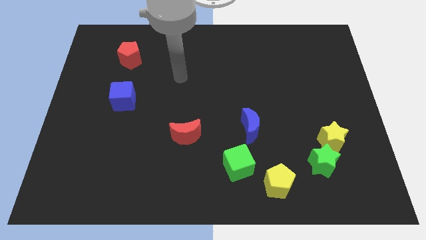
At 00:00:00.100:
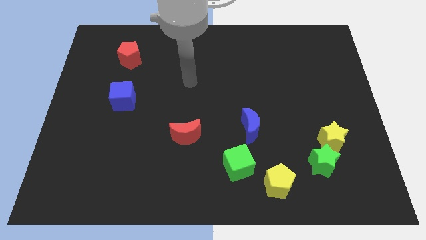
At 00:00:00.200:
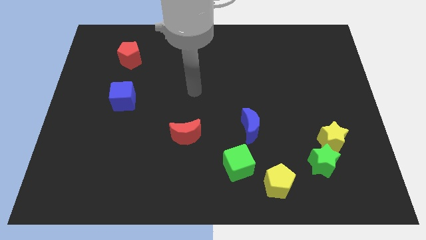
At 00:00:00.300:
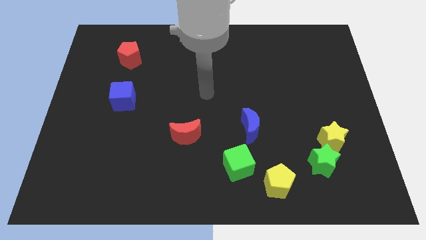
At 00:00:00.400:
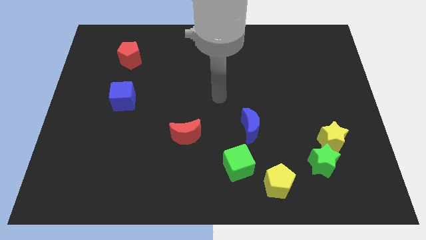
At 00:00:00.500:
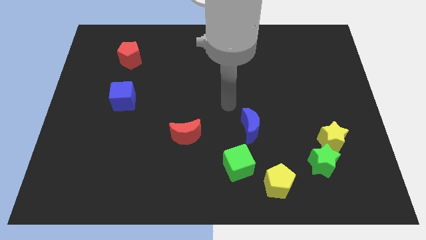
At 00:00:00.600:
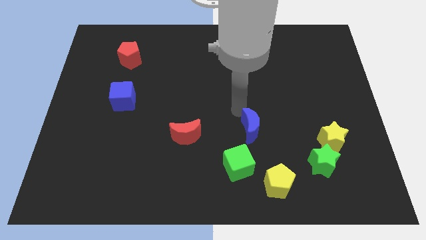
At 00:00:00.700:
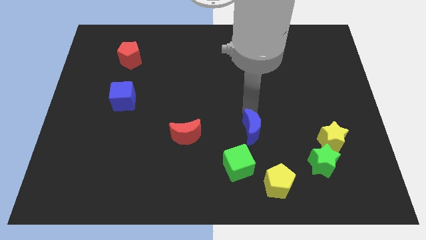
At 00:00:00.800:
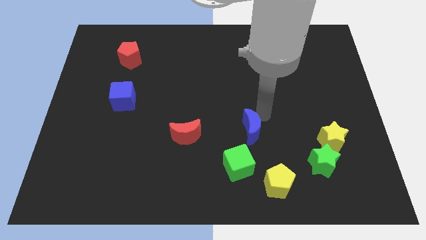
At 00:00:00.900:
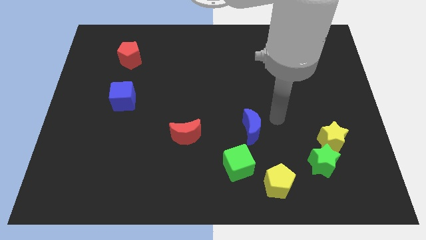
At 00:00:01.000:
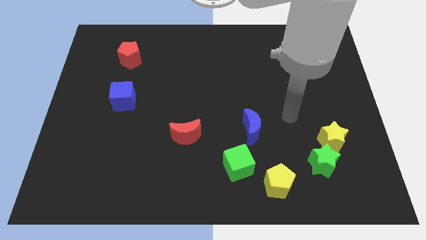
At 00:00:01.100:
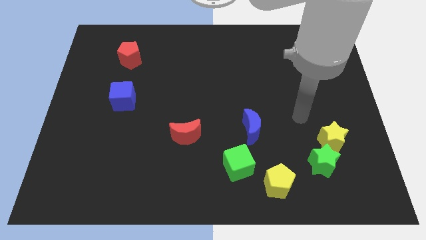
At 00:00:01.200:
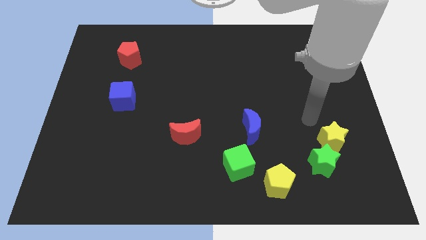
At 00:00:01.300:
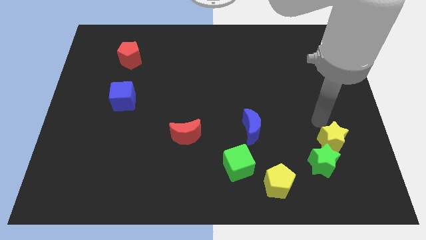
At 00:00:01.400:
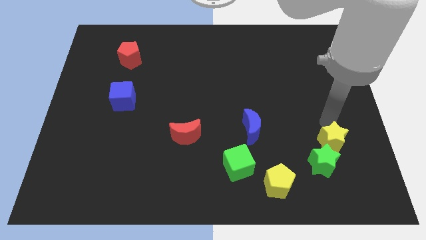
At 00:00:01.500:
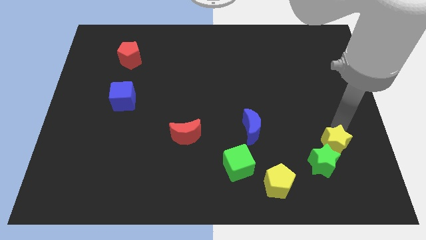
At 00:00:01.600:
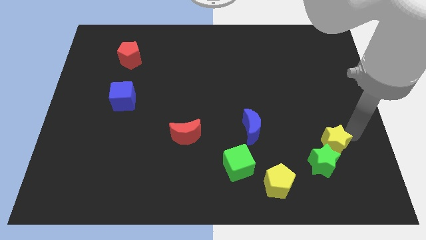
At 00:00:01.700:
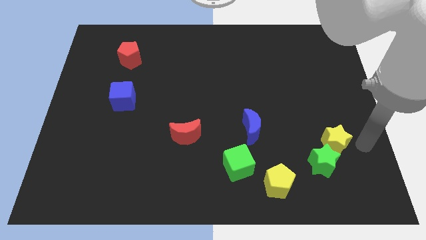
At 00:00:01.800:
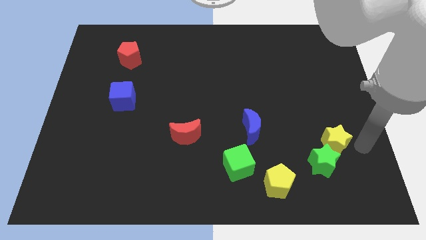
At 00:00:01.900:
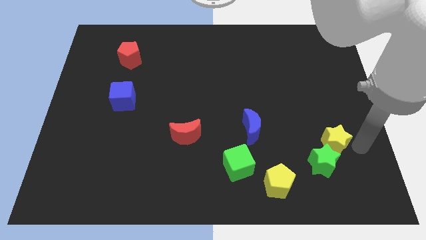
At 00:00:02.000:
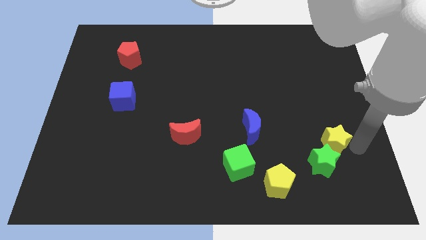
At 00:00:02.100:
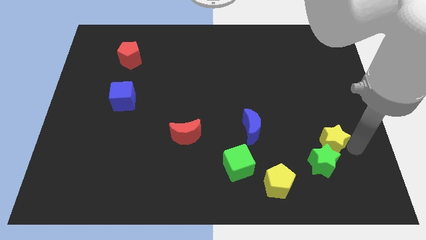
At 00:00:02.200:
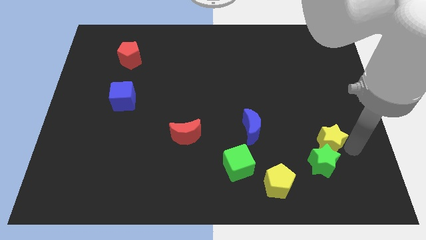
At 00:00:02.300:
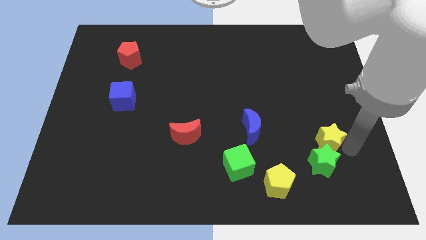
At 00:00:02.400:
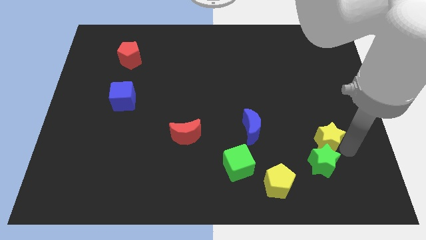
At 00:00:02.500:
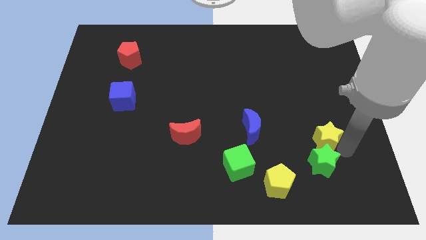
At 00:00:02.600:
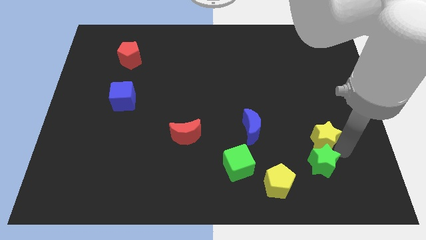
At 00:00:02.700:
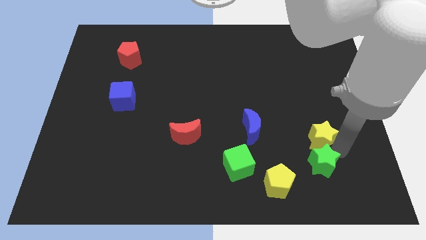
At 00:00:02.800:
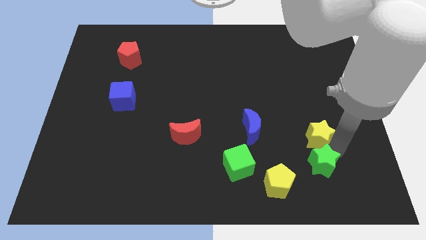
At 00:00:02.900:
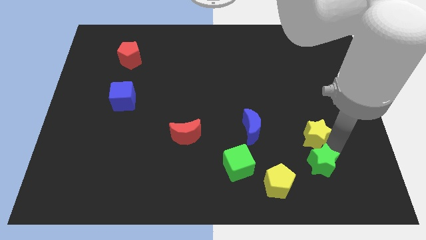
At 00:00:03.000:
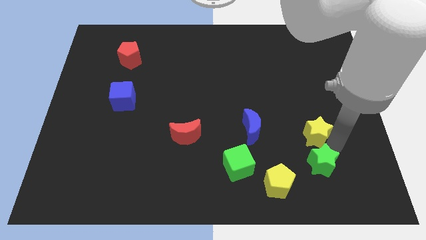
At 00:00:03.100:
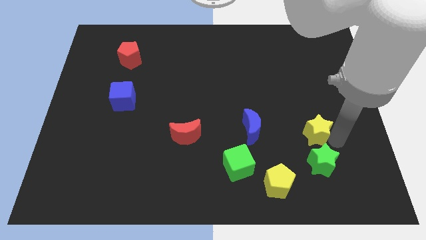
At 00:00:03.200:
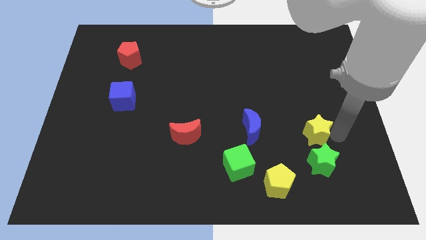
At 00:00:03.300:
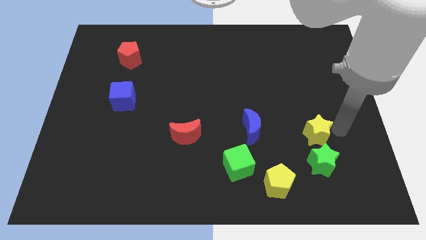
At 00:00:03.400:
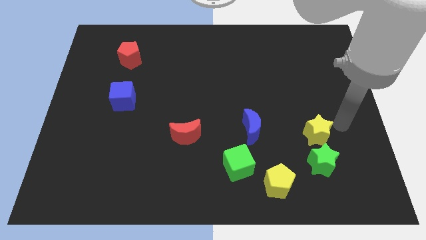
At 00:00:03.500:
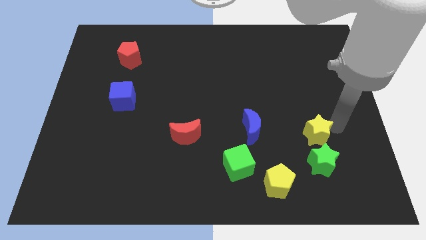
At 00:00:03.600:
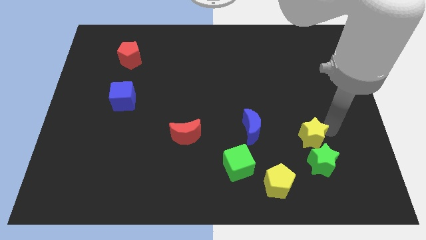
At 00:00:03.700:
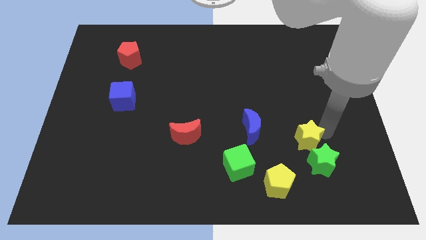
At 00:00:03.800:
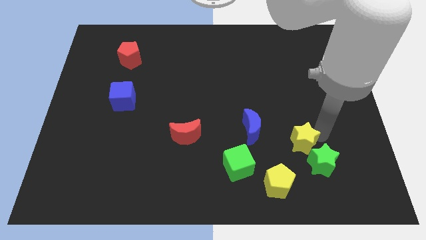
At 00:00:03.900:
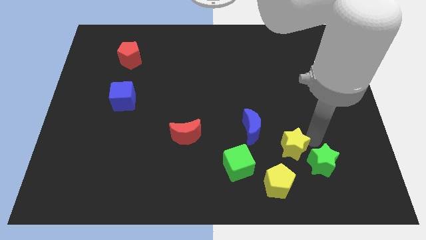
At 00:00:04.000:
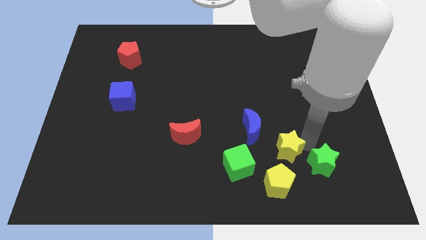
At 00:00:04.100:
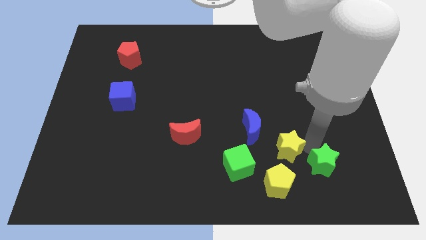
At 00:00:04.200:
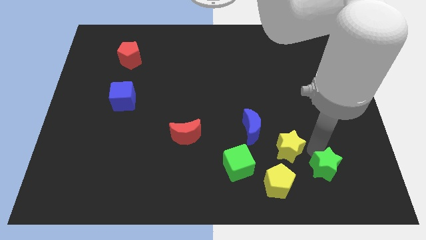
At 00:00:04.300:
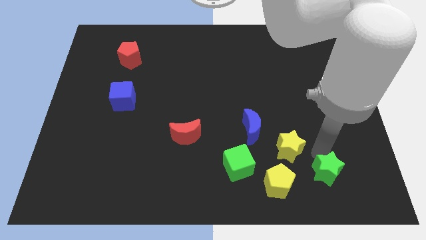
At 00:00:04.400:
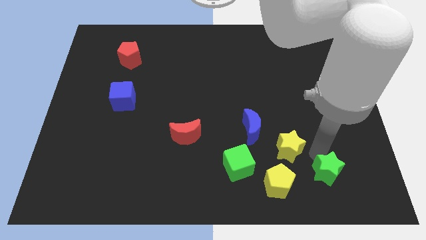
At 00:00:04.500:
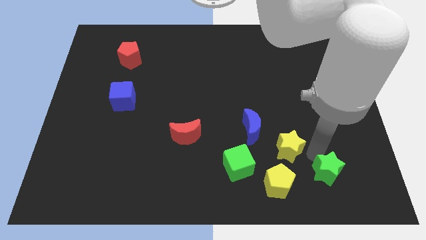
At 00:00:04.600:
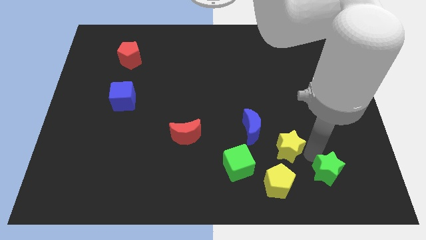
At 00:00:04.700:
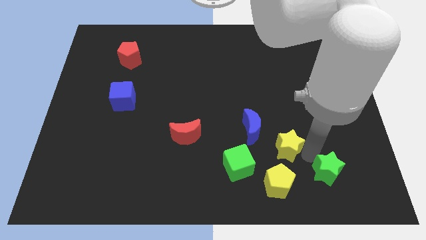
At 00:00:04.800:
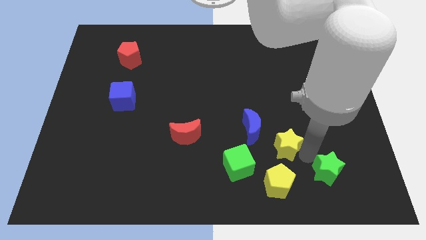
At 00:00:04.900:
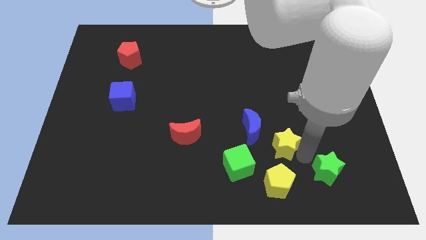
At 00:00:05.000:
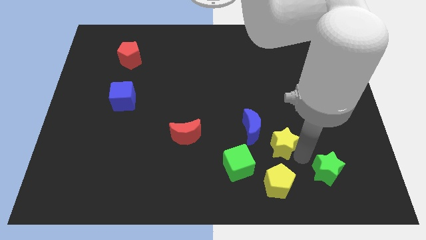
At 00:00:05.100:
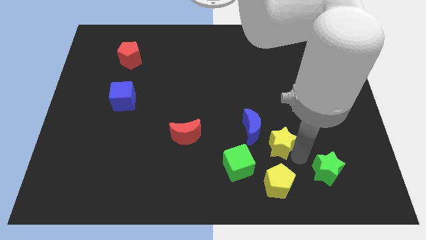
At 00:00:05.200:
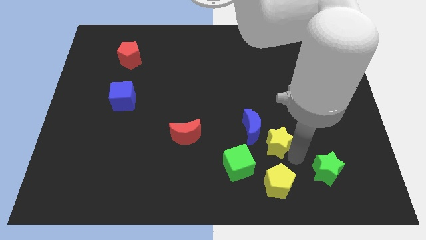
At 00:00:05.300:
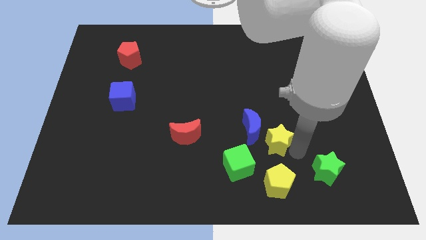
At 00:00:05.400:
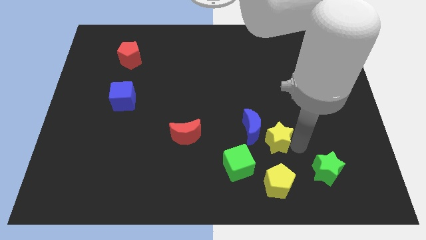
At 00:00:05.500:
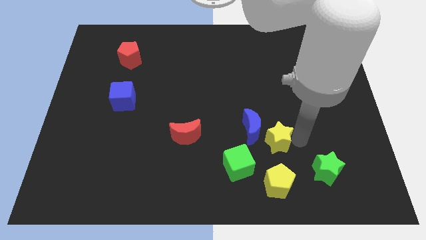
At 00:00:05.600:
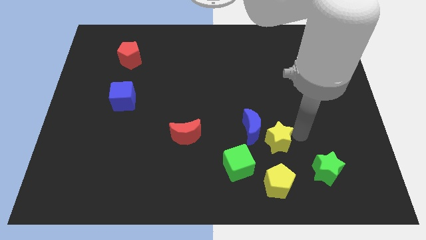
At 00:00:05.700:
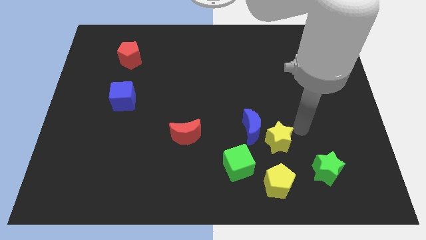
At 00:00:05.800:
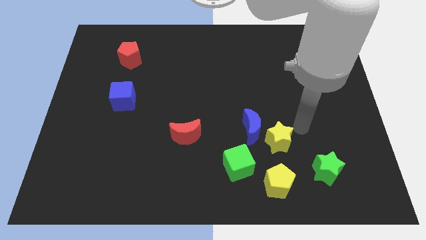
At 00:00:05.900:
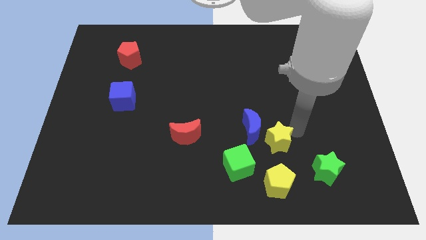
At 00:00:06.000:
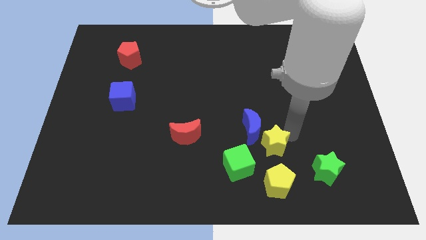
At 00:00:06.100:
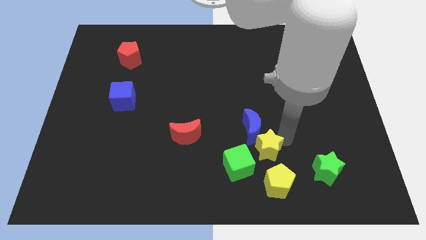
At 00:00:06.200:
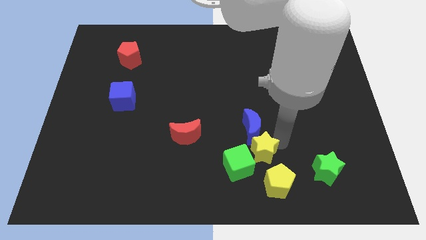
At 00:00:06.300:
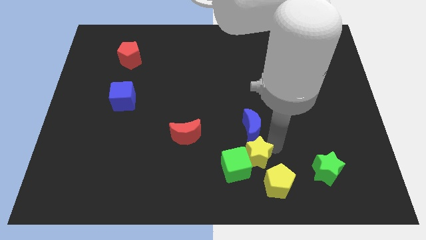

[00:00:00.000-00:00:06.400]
slide the yellow star close to the green cube
